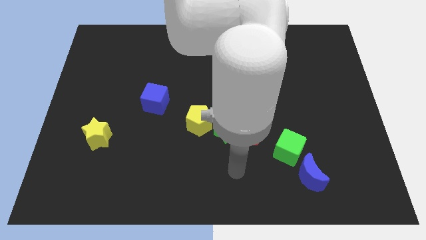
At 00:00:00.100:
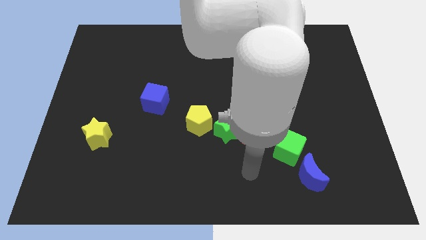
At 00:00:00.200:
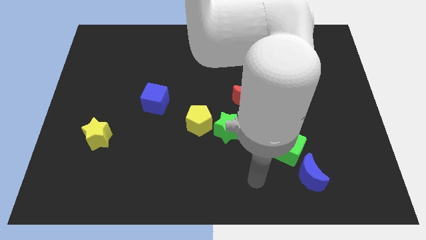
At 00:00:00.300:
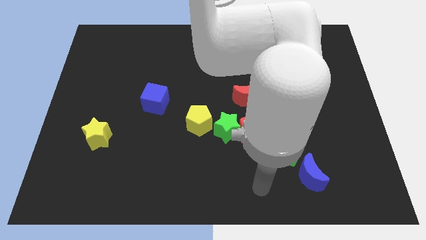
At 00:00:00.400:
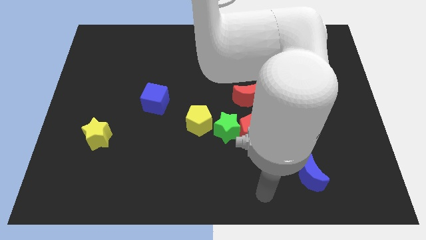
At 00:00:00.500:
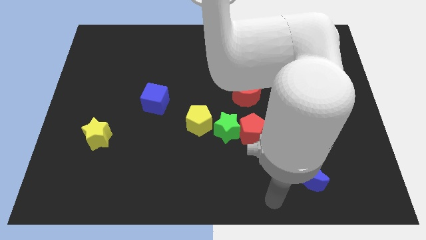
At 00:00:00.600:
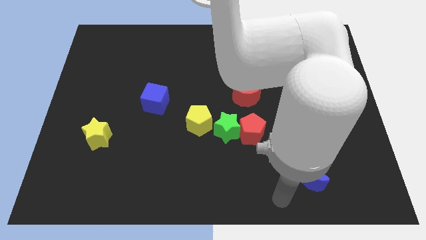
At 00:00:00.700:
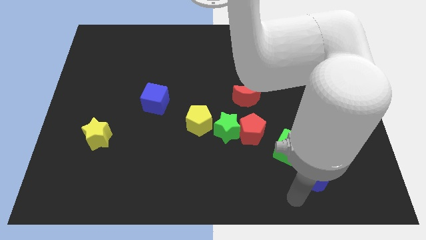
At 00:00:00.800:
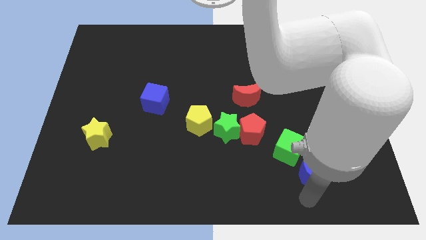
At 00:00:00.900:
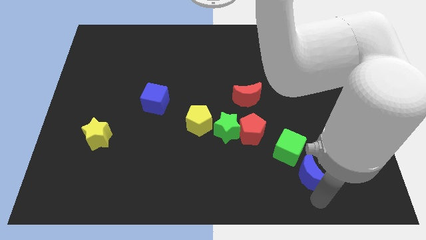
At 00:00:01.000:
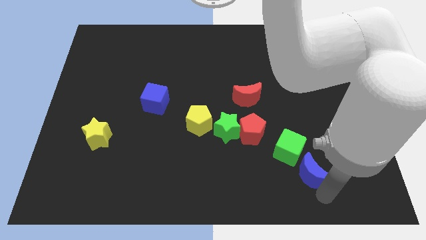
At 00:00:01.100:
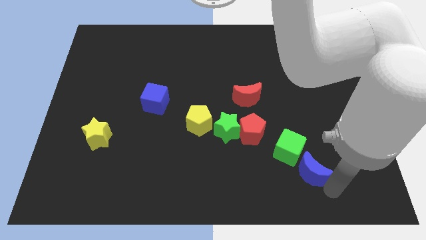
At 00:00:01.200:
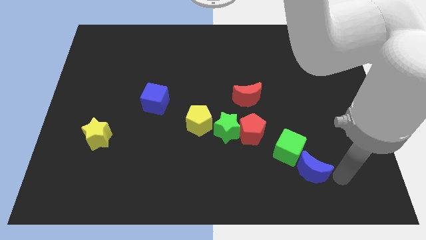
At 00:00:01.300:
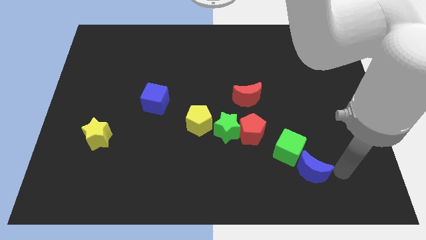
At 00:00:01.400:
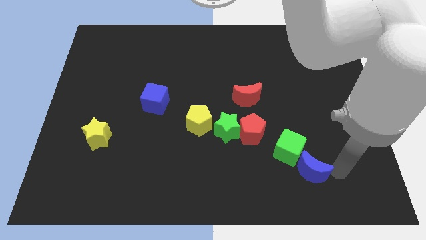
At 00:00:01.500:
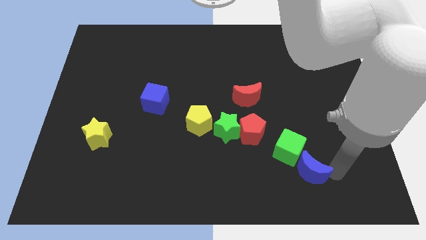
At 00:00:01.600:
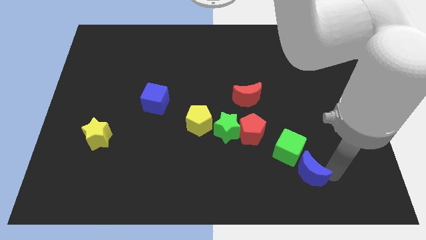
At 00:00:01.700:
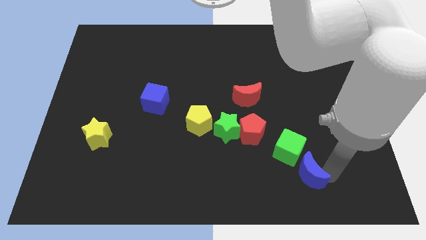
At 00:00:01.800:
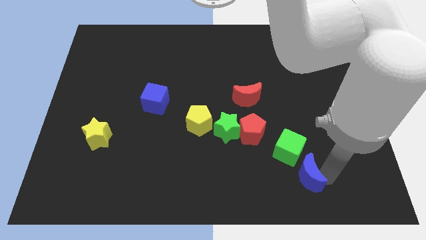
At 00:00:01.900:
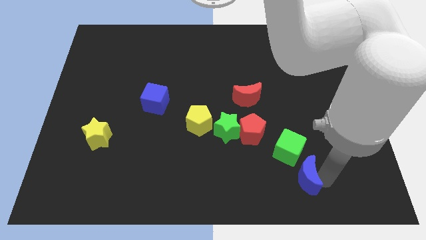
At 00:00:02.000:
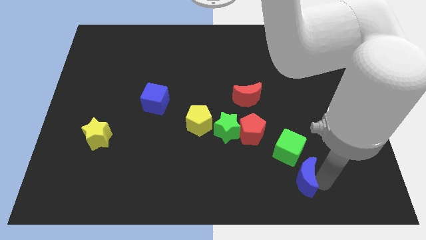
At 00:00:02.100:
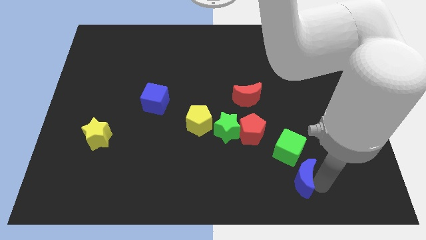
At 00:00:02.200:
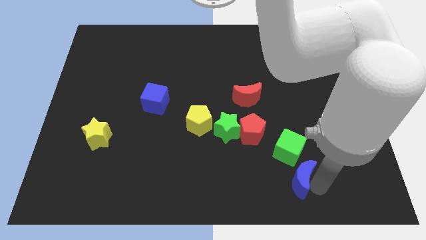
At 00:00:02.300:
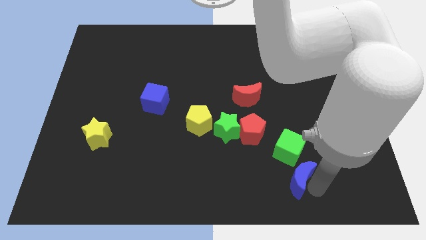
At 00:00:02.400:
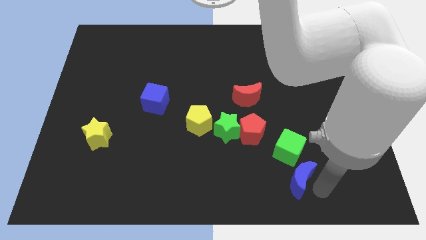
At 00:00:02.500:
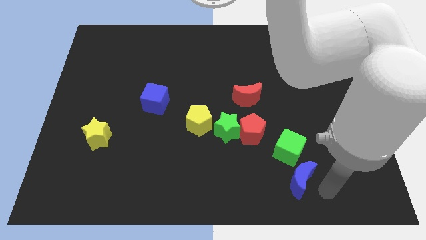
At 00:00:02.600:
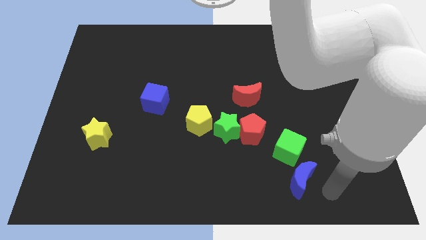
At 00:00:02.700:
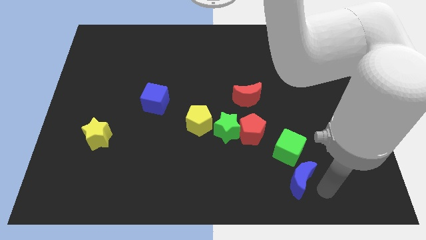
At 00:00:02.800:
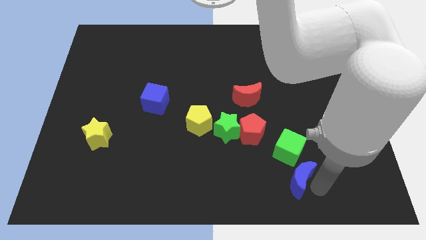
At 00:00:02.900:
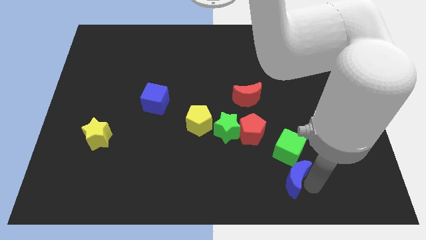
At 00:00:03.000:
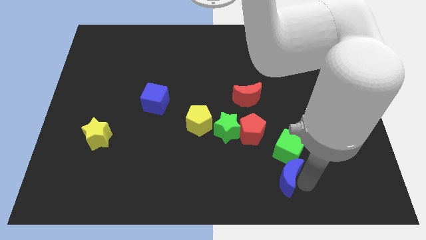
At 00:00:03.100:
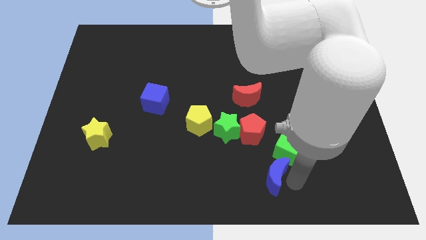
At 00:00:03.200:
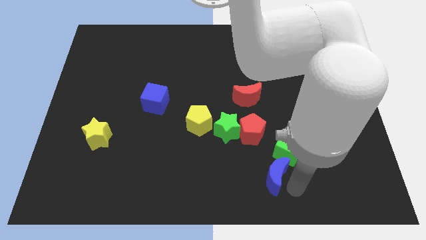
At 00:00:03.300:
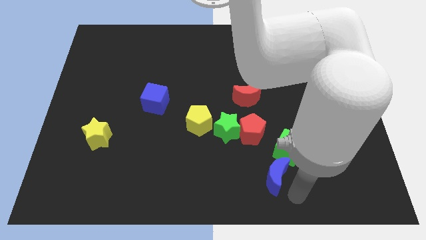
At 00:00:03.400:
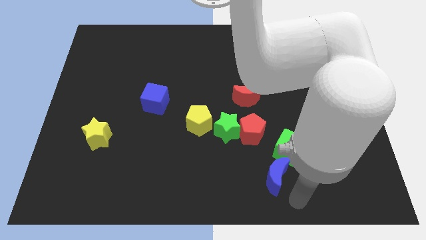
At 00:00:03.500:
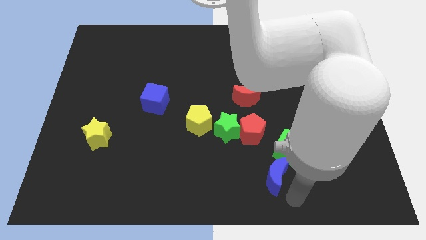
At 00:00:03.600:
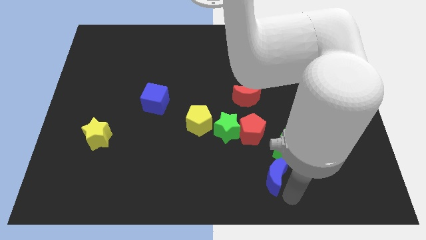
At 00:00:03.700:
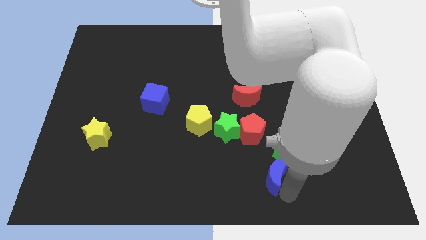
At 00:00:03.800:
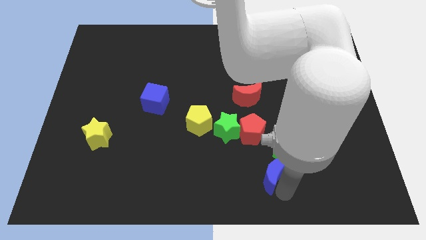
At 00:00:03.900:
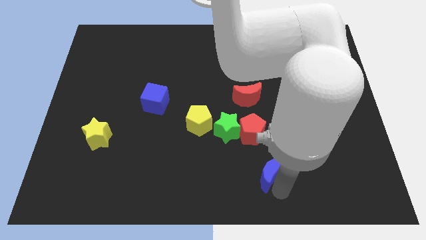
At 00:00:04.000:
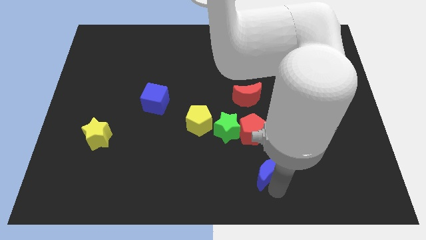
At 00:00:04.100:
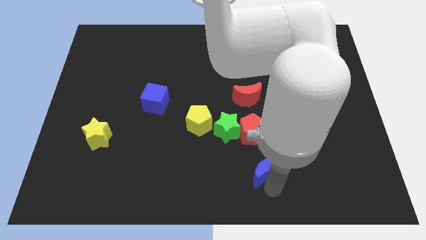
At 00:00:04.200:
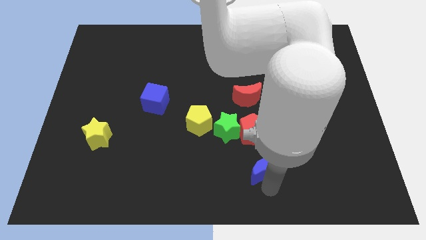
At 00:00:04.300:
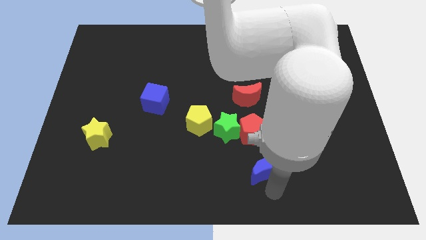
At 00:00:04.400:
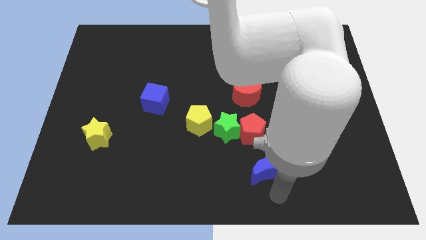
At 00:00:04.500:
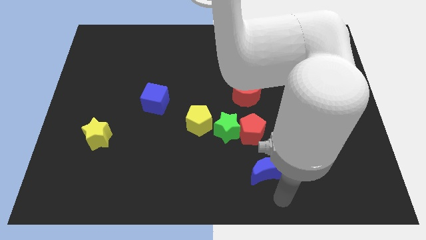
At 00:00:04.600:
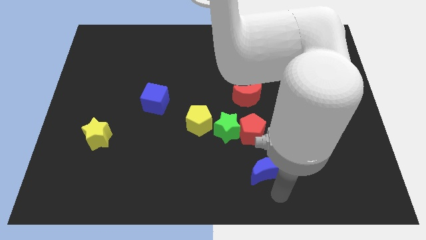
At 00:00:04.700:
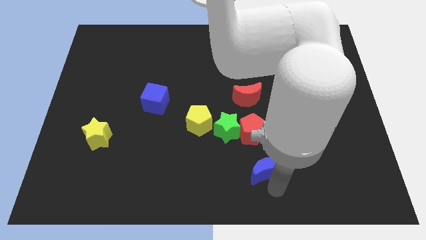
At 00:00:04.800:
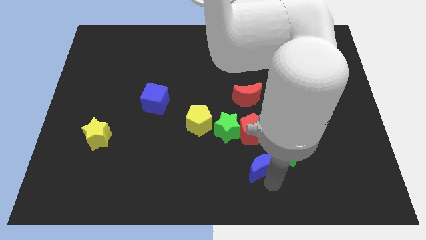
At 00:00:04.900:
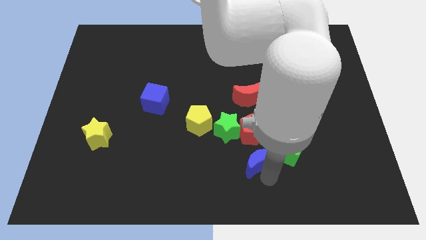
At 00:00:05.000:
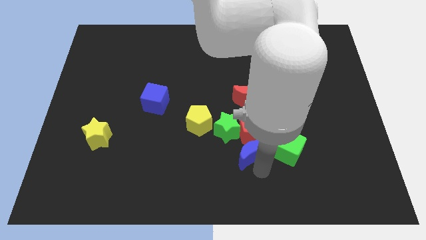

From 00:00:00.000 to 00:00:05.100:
move the blue moon towards the red pentagon

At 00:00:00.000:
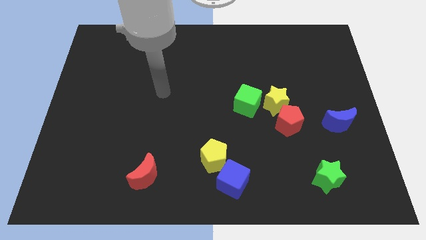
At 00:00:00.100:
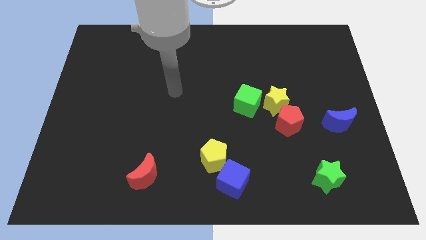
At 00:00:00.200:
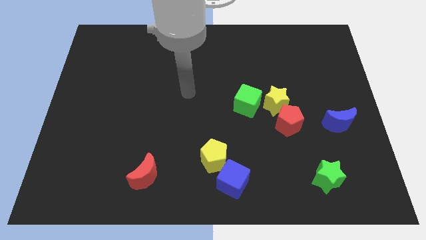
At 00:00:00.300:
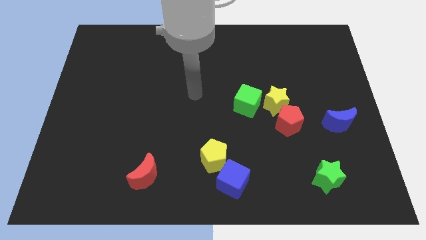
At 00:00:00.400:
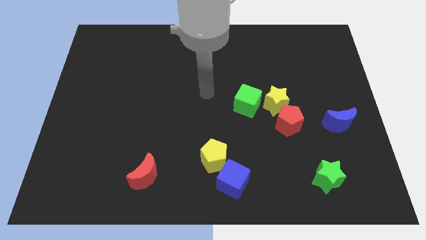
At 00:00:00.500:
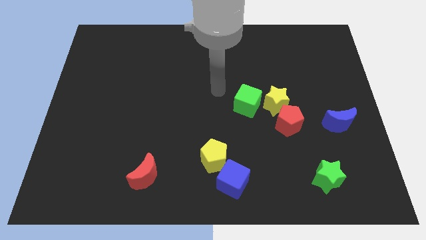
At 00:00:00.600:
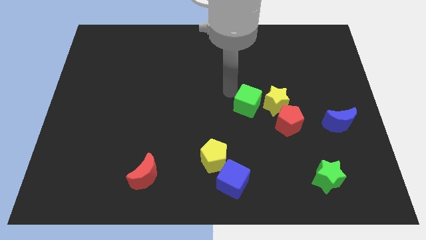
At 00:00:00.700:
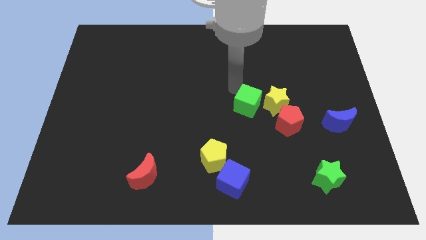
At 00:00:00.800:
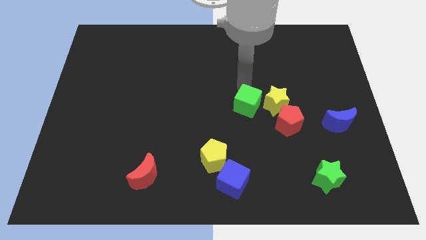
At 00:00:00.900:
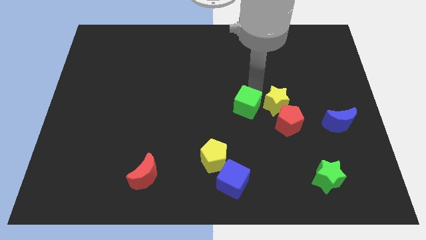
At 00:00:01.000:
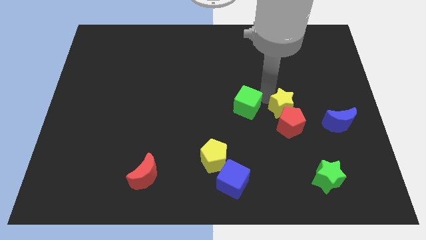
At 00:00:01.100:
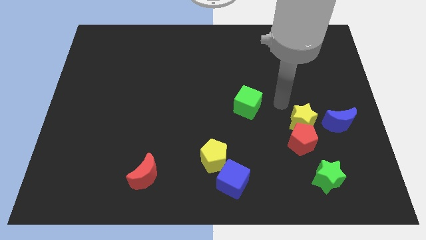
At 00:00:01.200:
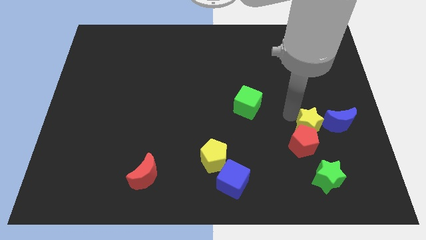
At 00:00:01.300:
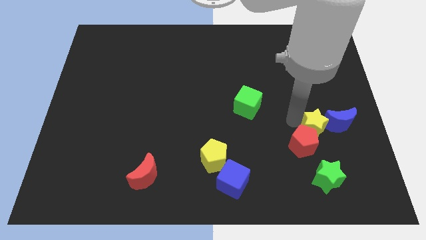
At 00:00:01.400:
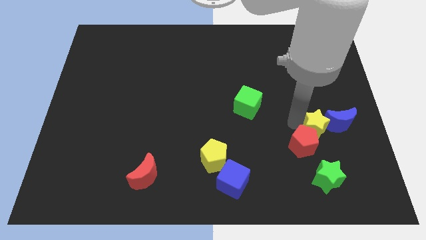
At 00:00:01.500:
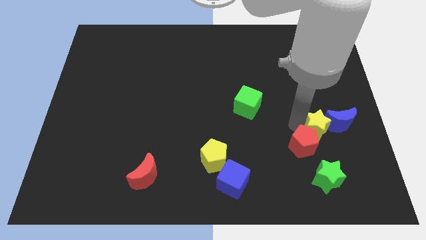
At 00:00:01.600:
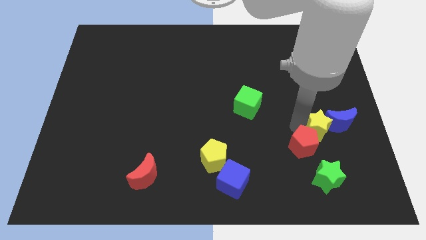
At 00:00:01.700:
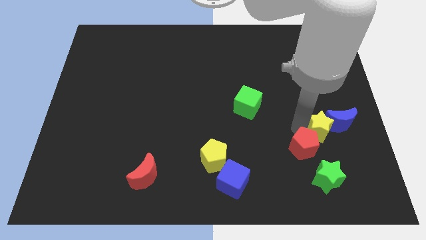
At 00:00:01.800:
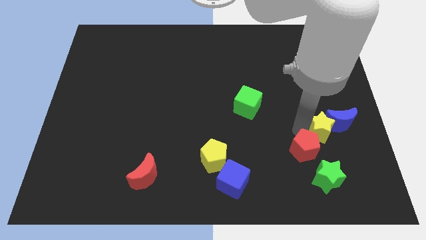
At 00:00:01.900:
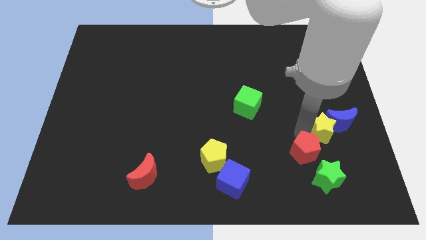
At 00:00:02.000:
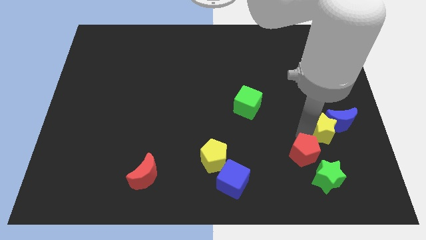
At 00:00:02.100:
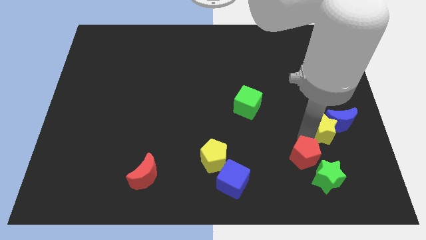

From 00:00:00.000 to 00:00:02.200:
move the red pentagon next to the green star

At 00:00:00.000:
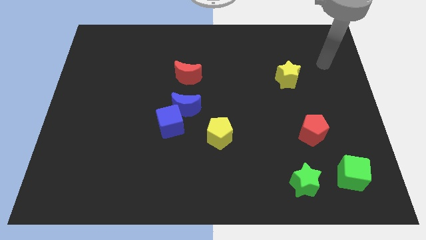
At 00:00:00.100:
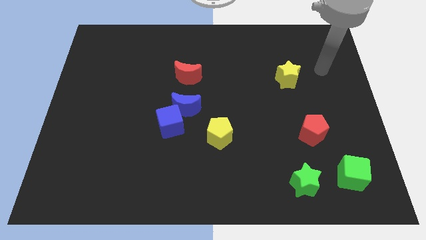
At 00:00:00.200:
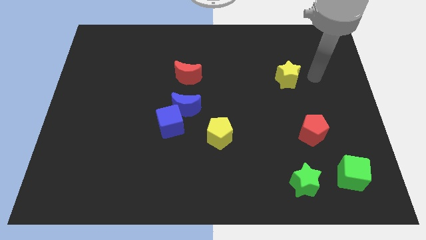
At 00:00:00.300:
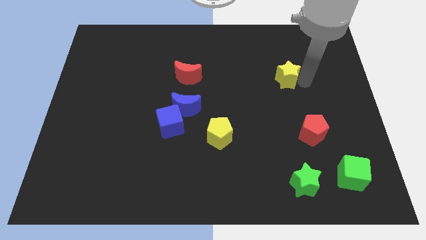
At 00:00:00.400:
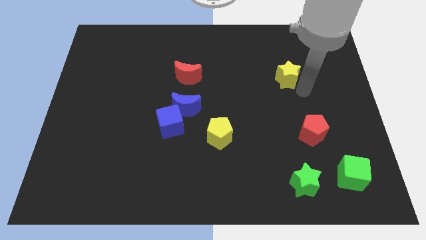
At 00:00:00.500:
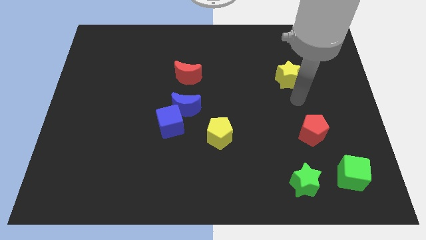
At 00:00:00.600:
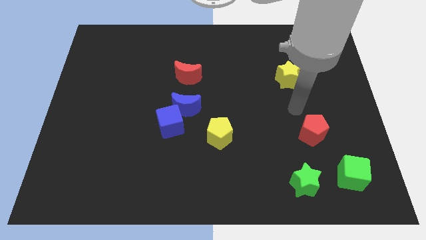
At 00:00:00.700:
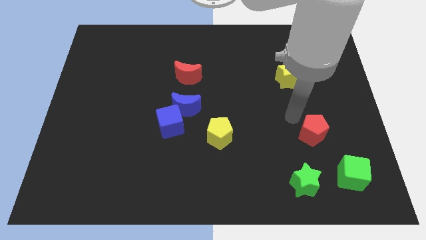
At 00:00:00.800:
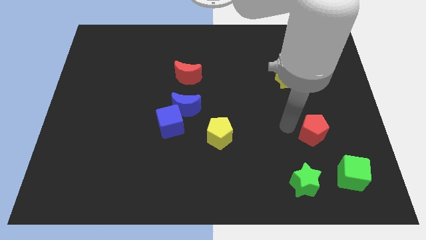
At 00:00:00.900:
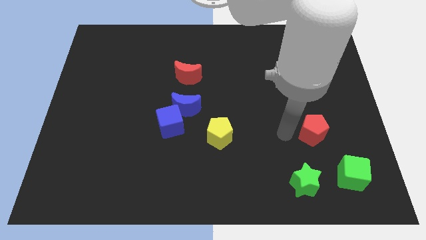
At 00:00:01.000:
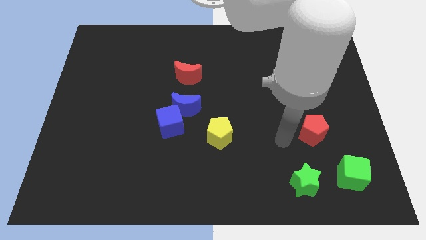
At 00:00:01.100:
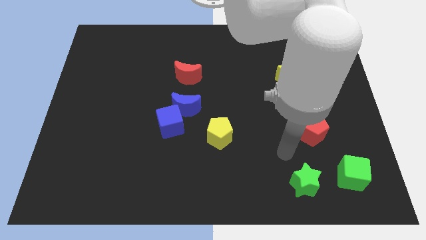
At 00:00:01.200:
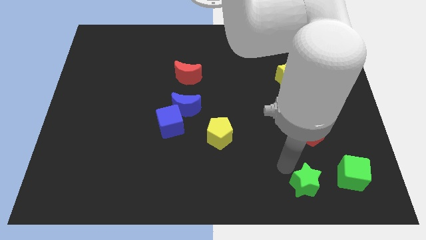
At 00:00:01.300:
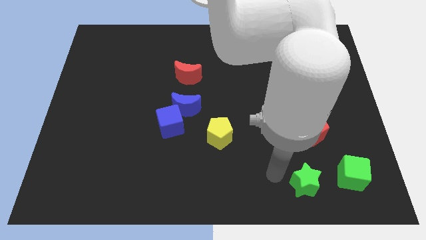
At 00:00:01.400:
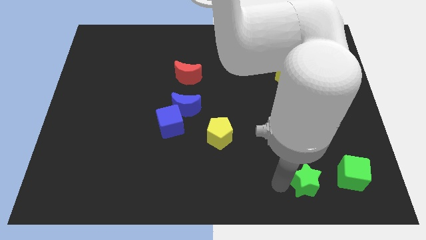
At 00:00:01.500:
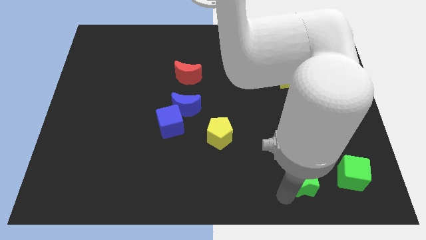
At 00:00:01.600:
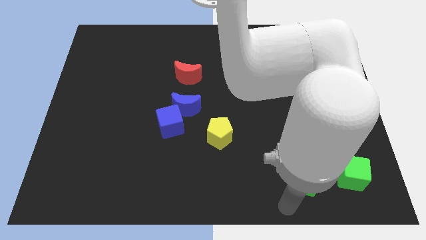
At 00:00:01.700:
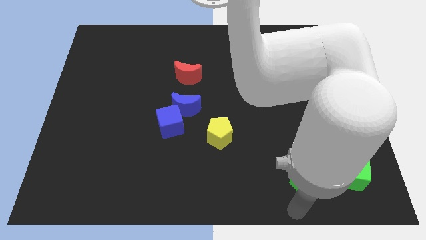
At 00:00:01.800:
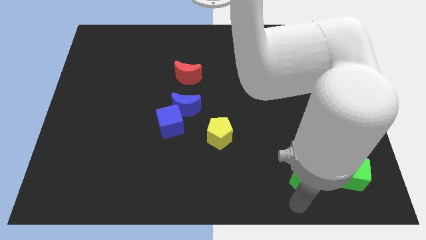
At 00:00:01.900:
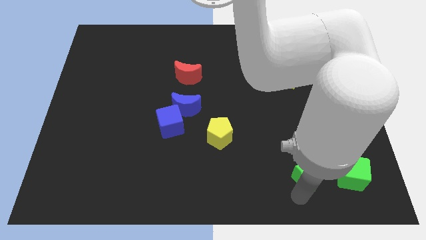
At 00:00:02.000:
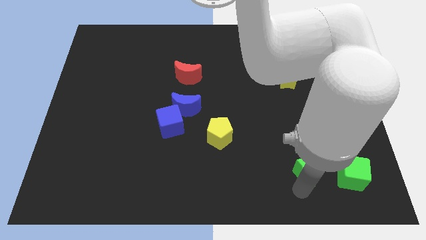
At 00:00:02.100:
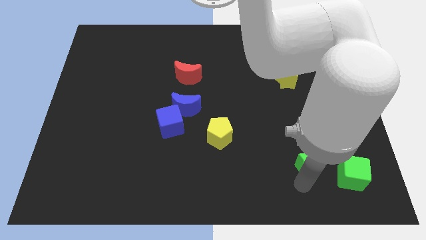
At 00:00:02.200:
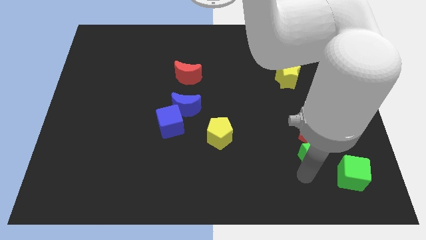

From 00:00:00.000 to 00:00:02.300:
put the green star close to the red pentagon
